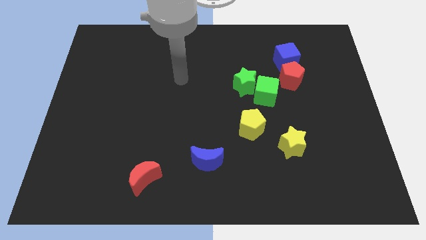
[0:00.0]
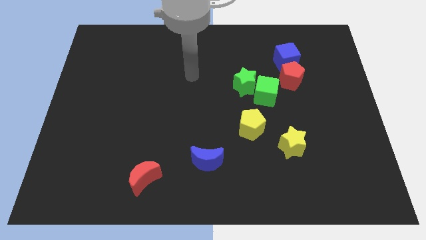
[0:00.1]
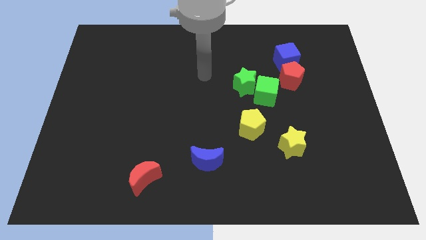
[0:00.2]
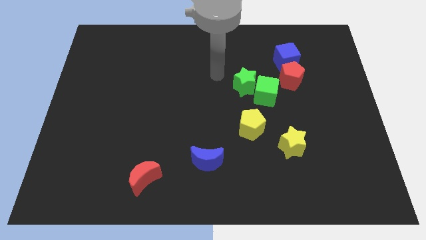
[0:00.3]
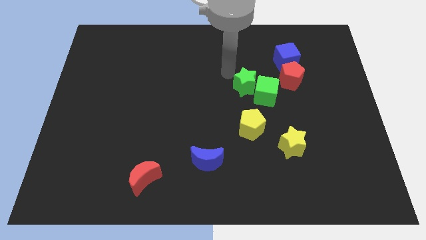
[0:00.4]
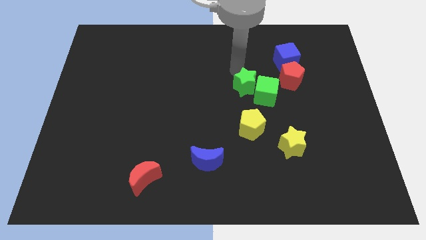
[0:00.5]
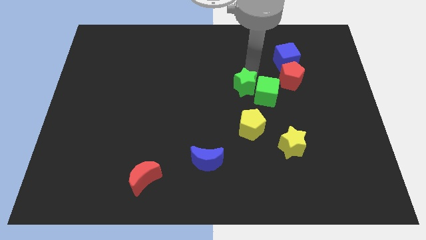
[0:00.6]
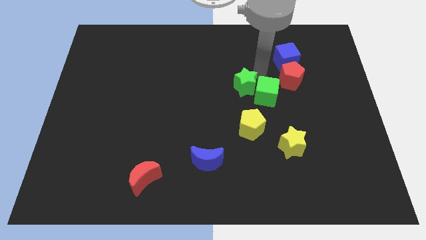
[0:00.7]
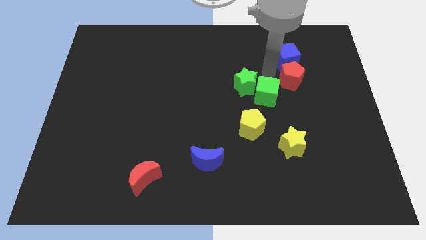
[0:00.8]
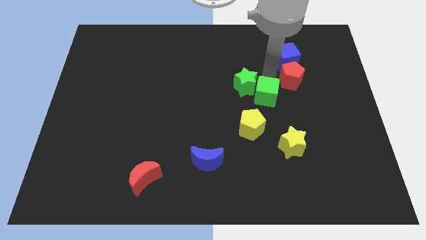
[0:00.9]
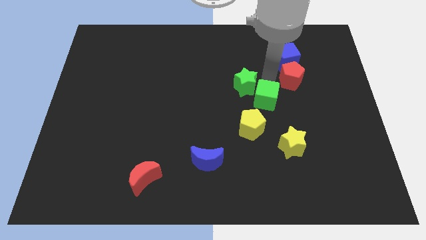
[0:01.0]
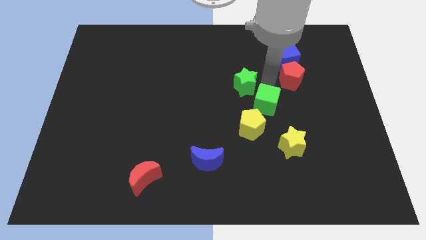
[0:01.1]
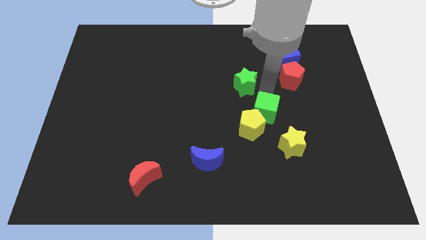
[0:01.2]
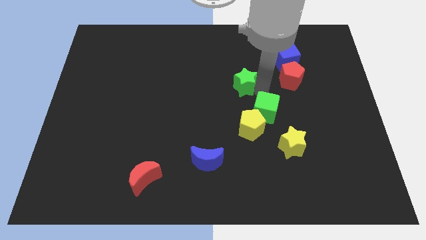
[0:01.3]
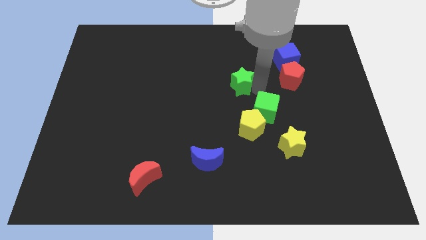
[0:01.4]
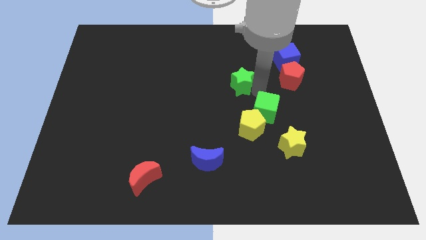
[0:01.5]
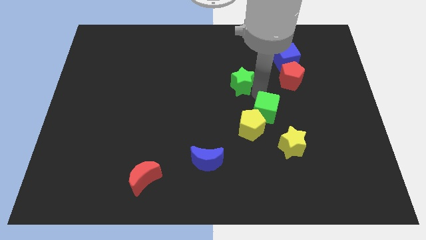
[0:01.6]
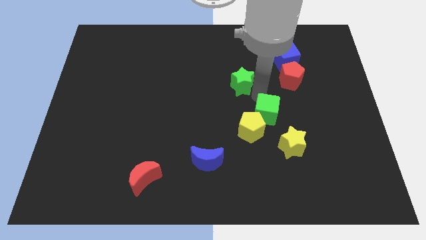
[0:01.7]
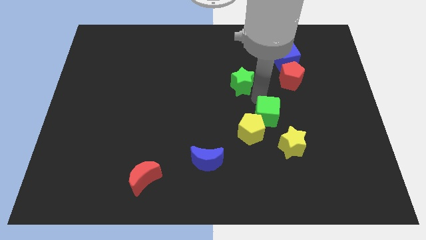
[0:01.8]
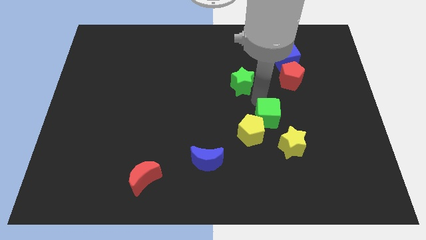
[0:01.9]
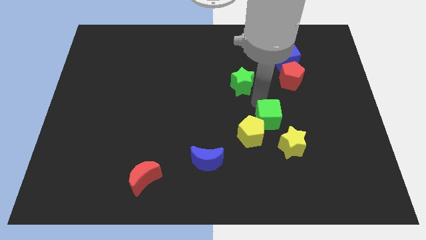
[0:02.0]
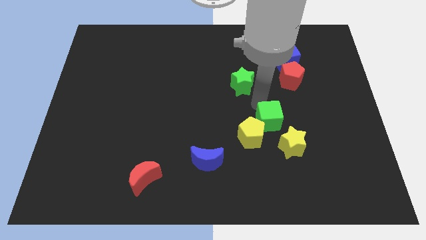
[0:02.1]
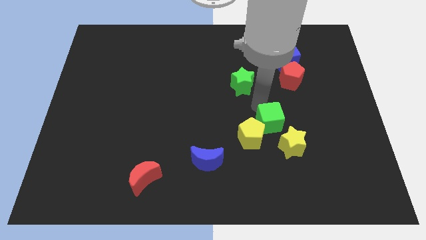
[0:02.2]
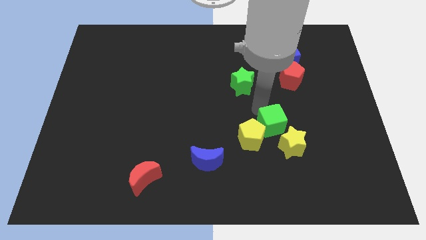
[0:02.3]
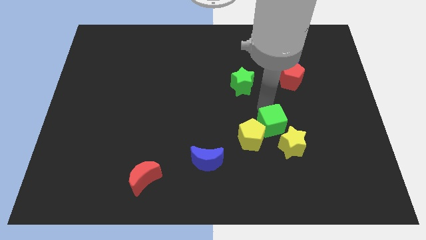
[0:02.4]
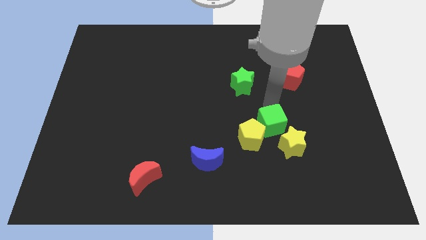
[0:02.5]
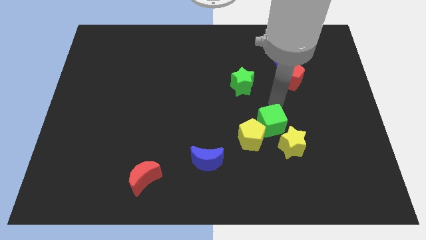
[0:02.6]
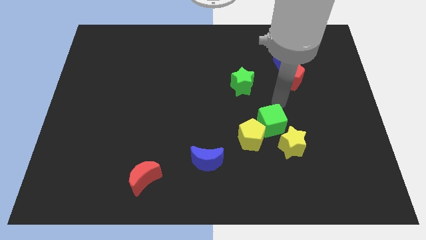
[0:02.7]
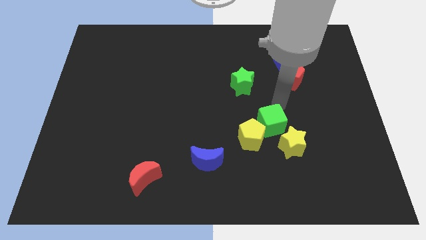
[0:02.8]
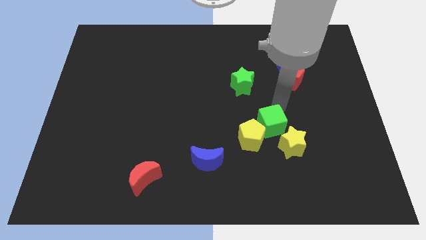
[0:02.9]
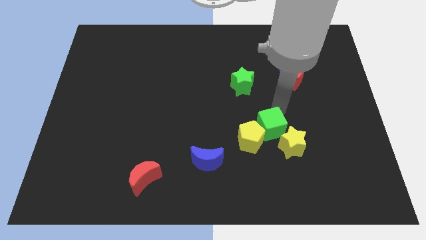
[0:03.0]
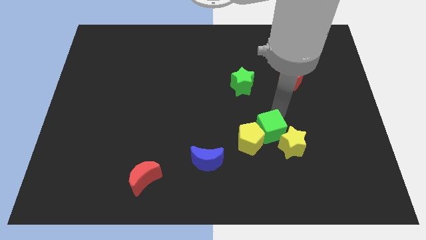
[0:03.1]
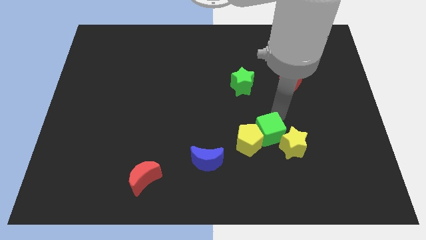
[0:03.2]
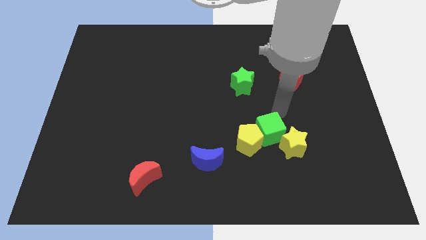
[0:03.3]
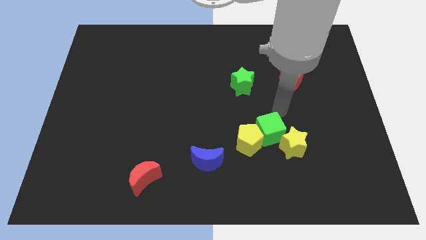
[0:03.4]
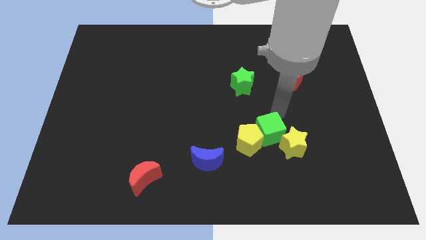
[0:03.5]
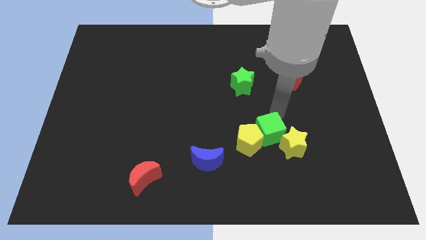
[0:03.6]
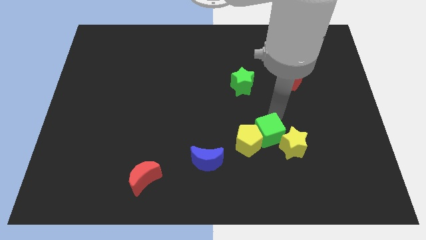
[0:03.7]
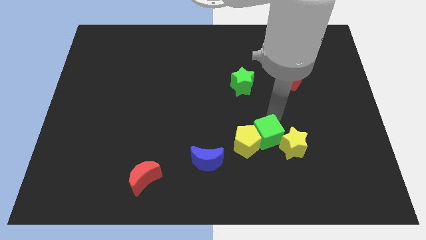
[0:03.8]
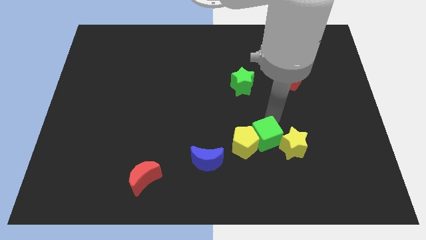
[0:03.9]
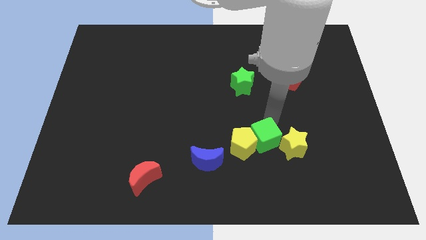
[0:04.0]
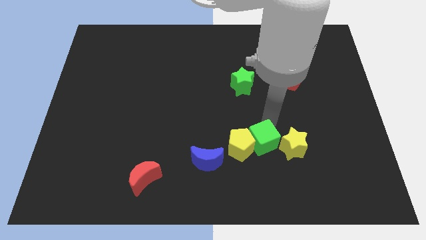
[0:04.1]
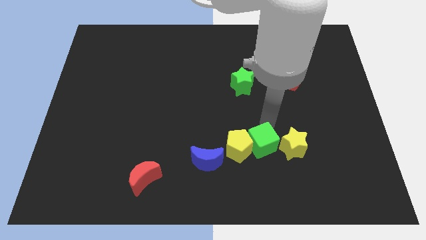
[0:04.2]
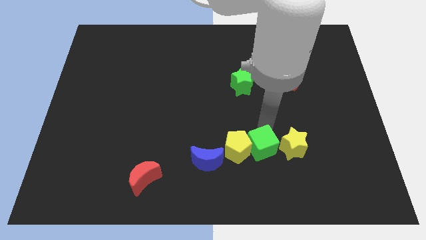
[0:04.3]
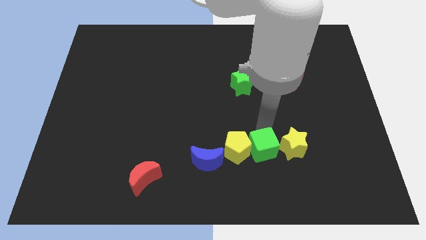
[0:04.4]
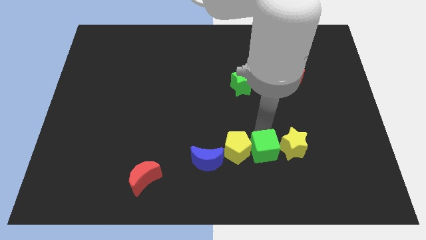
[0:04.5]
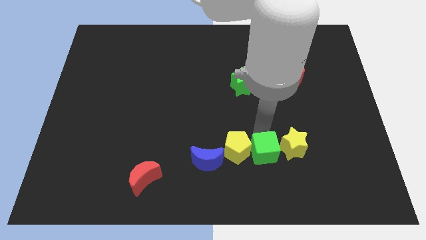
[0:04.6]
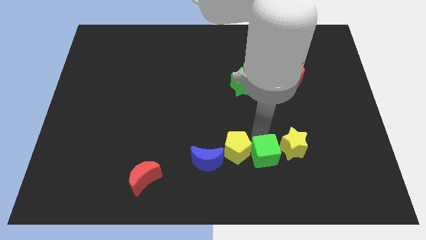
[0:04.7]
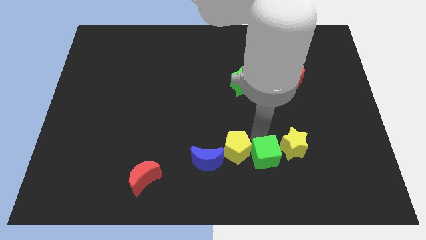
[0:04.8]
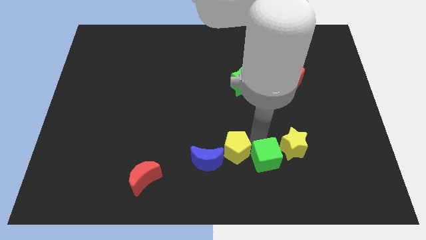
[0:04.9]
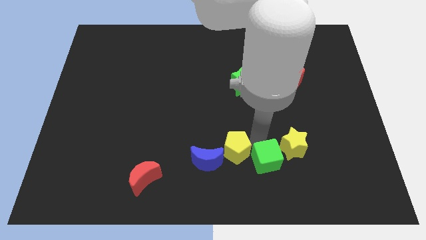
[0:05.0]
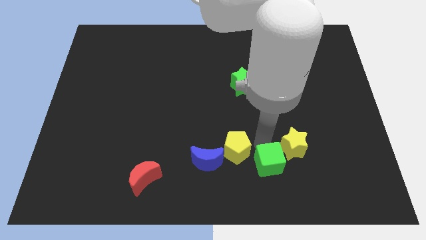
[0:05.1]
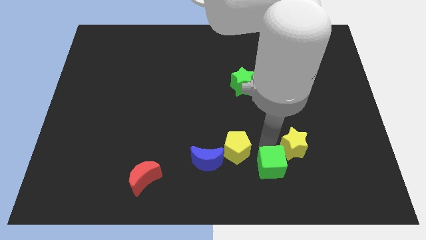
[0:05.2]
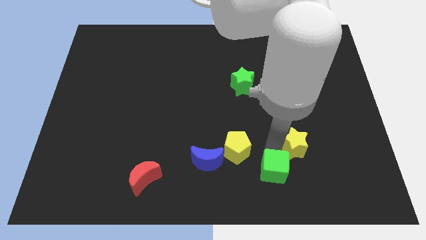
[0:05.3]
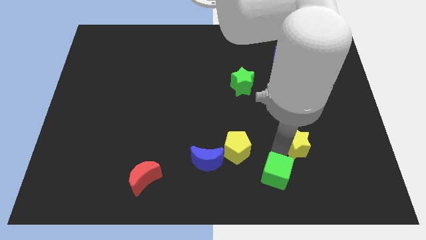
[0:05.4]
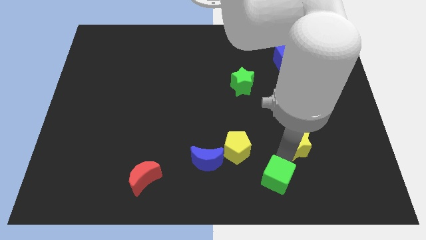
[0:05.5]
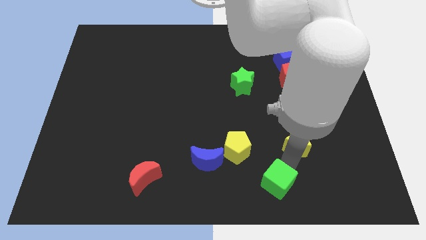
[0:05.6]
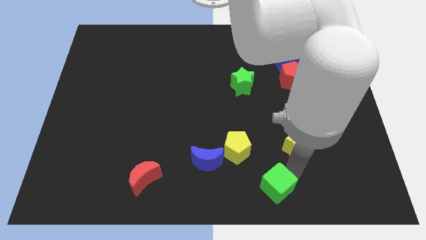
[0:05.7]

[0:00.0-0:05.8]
move the green cube to the bottom

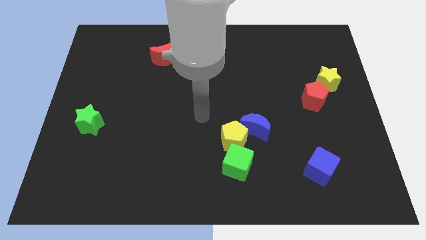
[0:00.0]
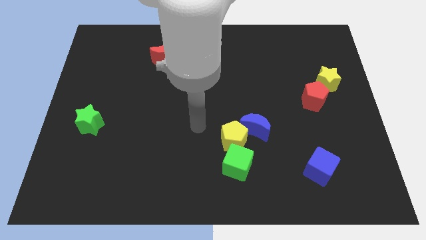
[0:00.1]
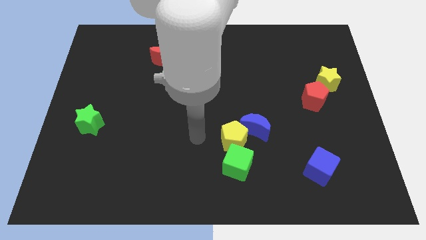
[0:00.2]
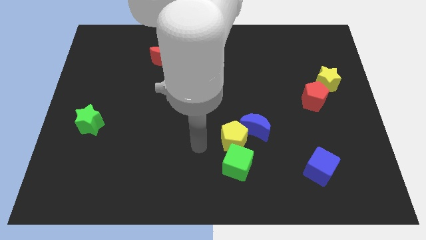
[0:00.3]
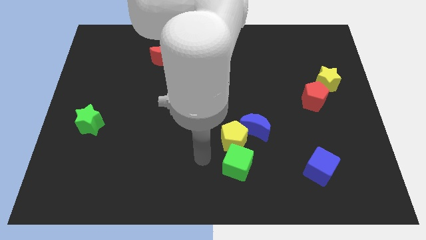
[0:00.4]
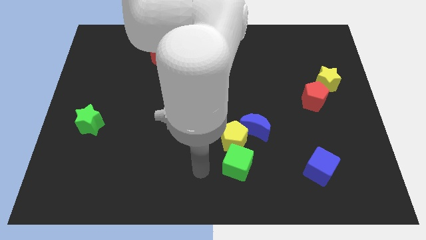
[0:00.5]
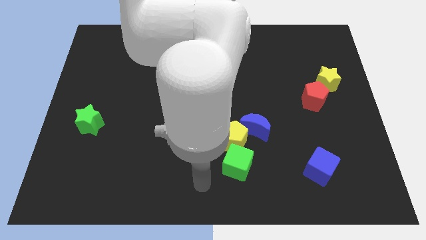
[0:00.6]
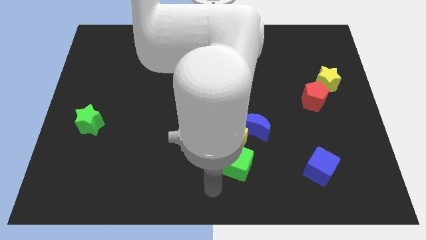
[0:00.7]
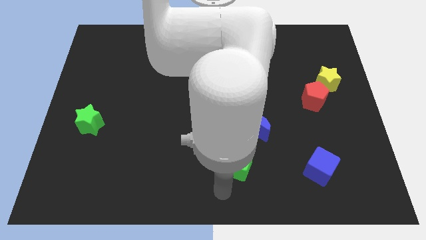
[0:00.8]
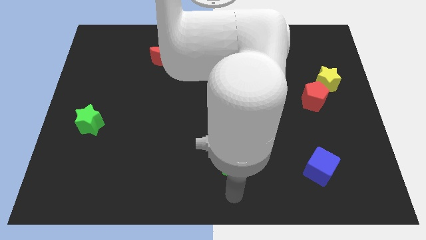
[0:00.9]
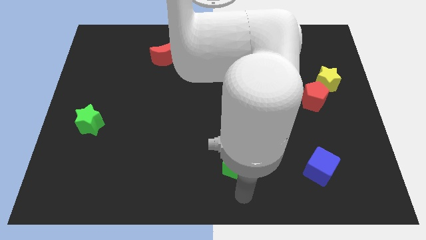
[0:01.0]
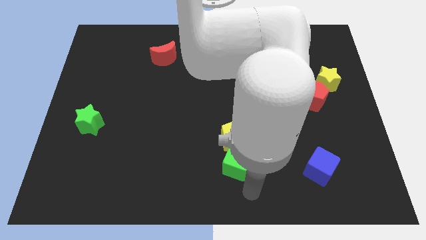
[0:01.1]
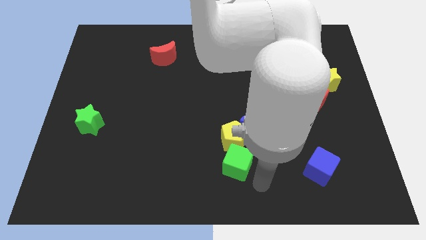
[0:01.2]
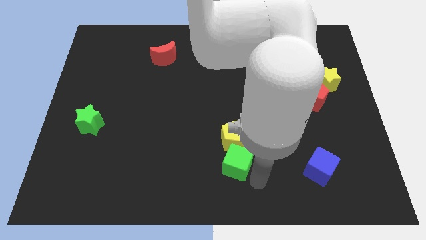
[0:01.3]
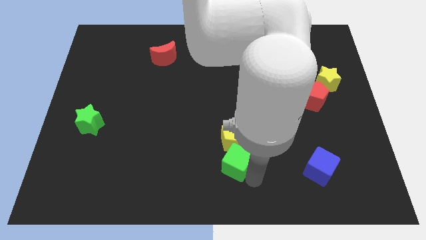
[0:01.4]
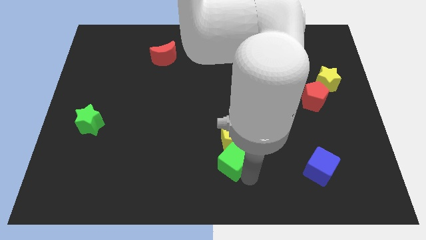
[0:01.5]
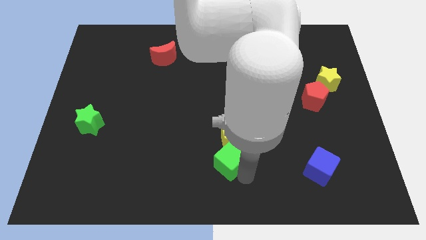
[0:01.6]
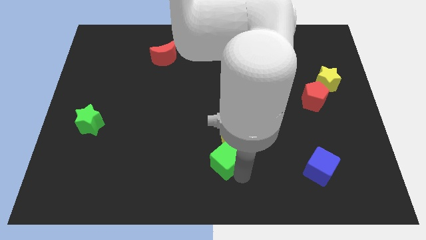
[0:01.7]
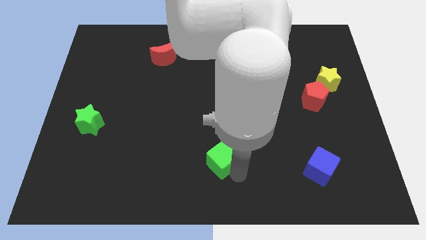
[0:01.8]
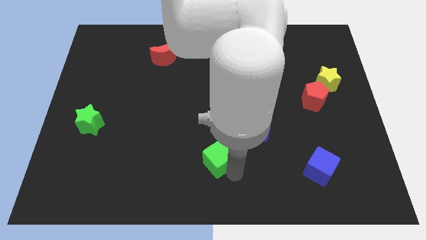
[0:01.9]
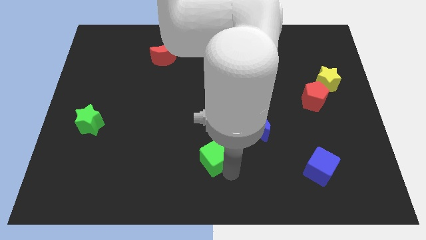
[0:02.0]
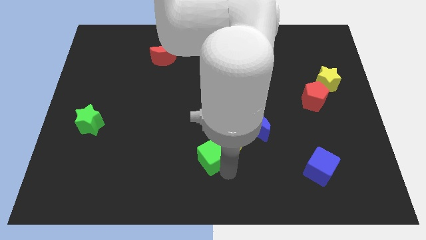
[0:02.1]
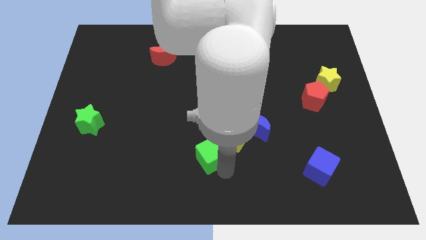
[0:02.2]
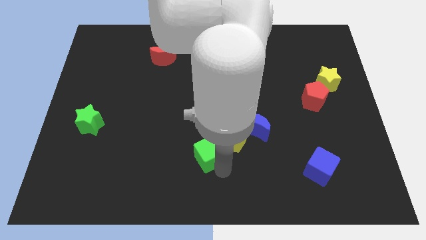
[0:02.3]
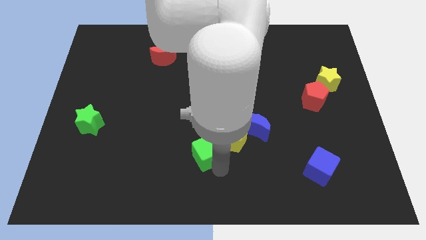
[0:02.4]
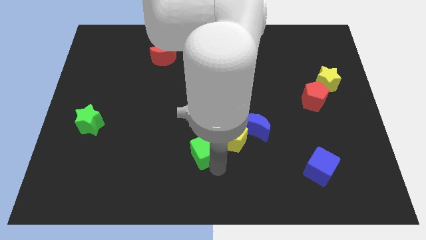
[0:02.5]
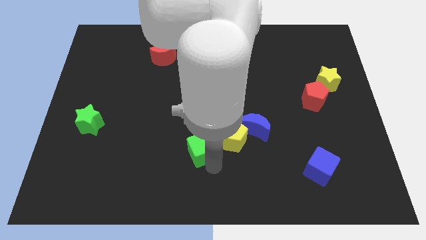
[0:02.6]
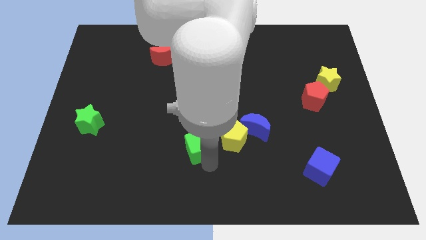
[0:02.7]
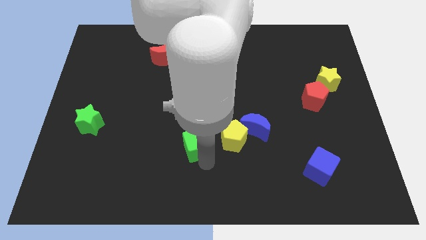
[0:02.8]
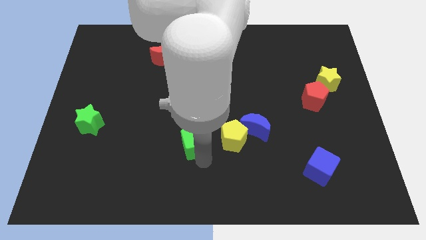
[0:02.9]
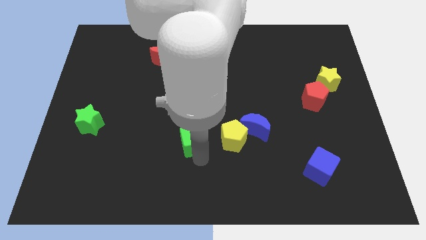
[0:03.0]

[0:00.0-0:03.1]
push the green cube to the middle
